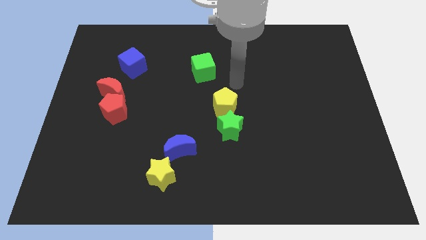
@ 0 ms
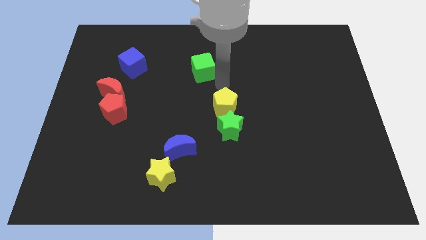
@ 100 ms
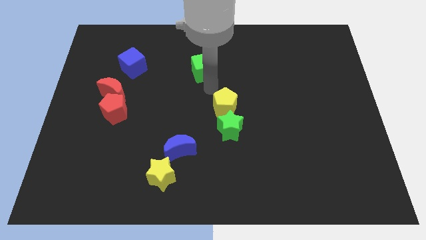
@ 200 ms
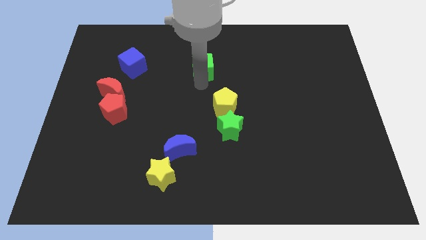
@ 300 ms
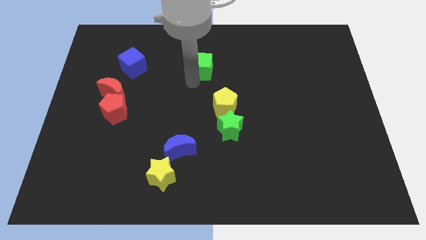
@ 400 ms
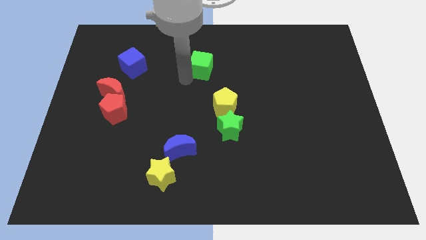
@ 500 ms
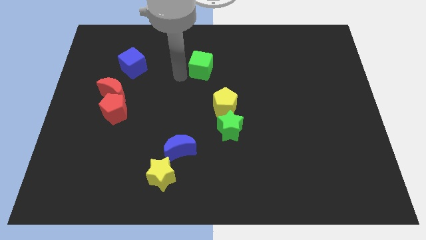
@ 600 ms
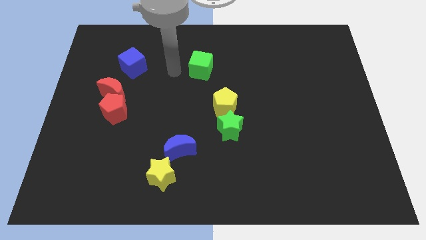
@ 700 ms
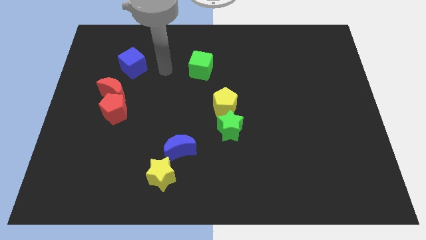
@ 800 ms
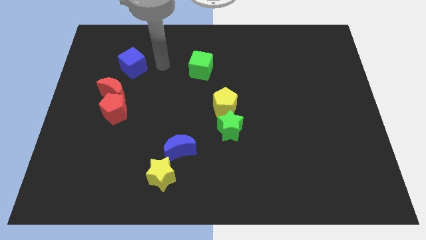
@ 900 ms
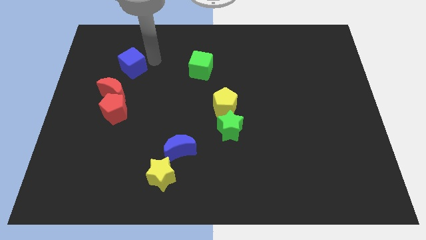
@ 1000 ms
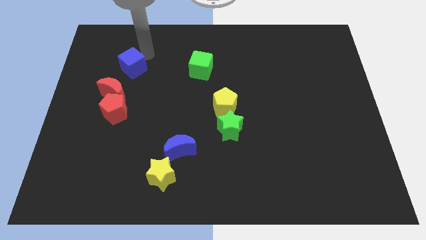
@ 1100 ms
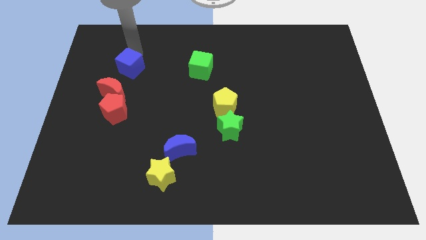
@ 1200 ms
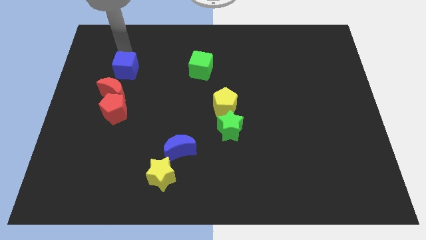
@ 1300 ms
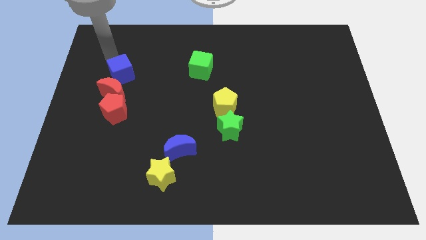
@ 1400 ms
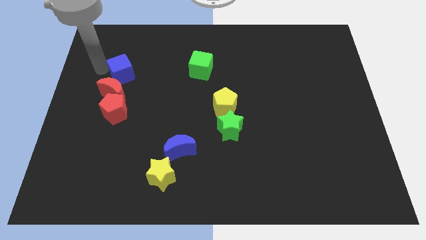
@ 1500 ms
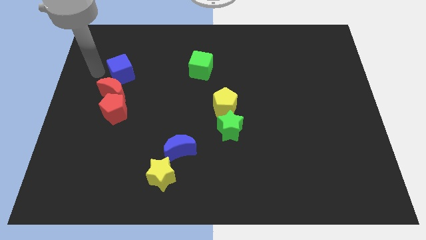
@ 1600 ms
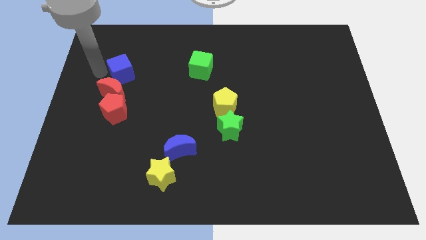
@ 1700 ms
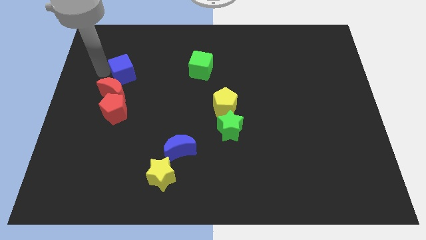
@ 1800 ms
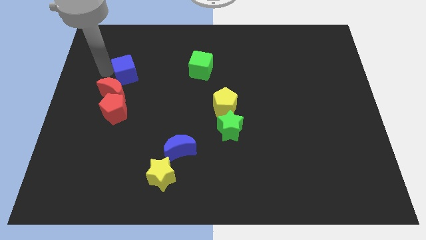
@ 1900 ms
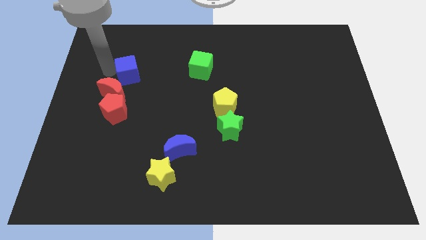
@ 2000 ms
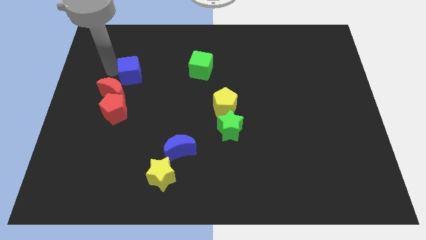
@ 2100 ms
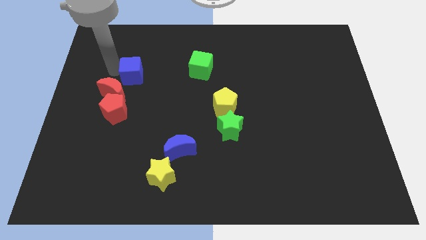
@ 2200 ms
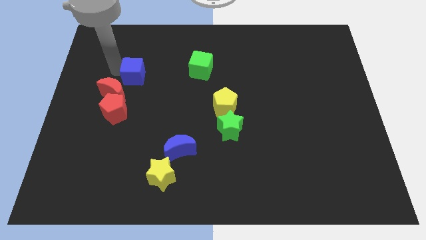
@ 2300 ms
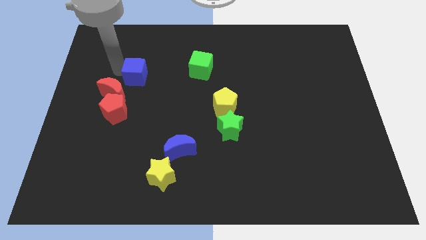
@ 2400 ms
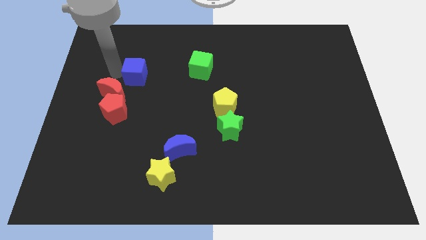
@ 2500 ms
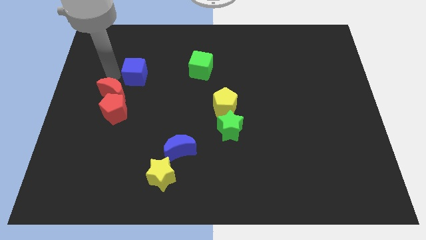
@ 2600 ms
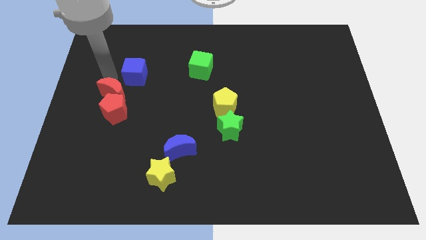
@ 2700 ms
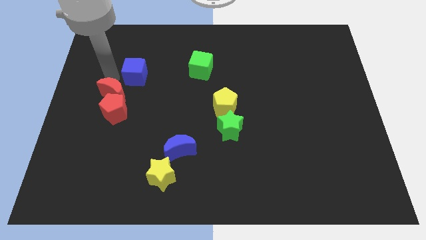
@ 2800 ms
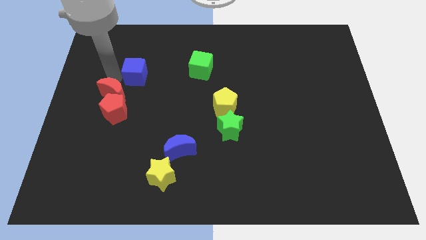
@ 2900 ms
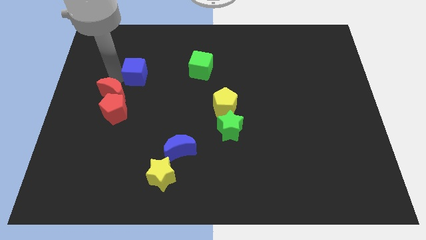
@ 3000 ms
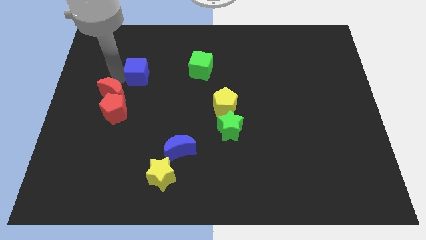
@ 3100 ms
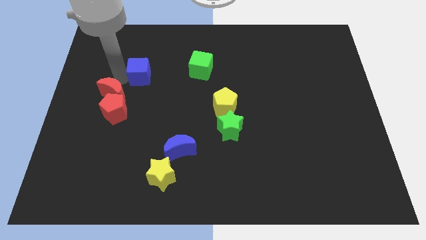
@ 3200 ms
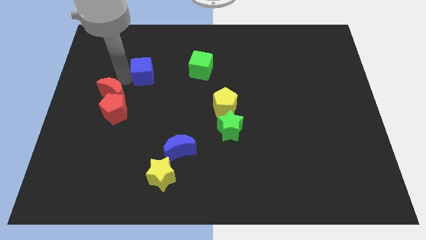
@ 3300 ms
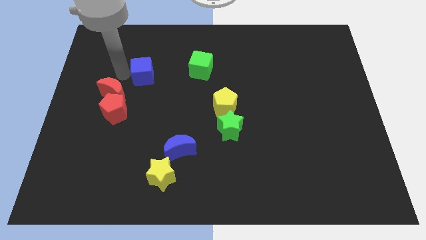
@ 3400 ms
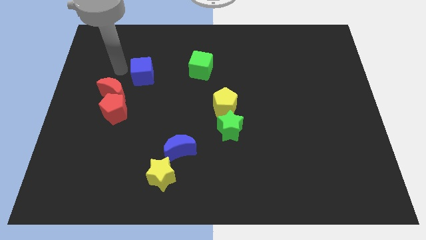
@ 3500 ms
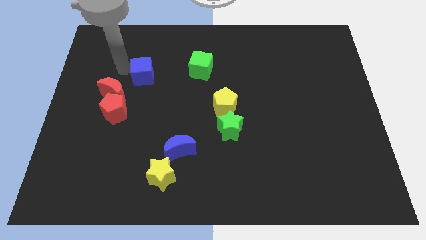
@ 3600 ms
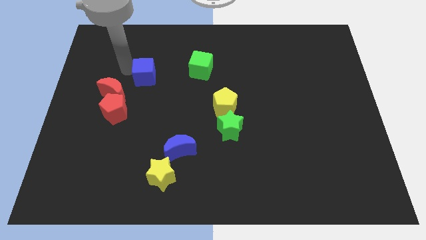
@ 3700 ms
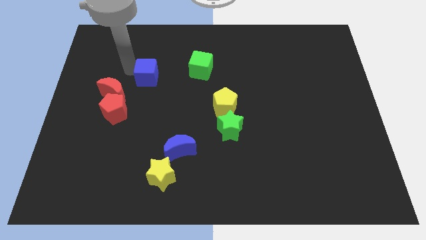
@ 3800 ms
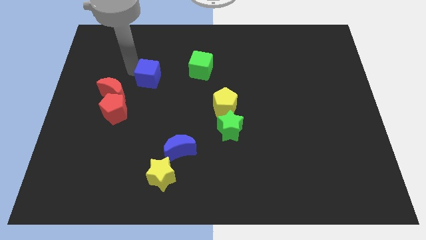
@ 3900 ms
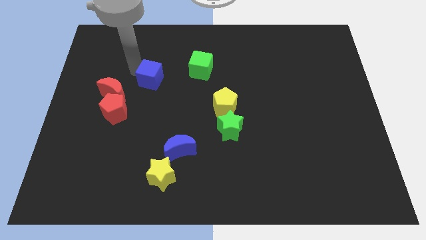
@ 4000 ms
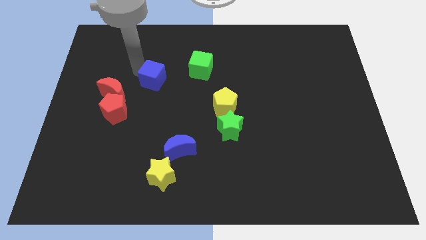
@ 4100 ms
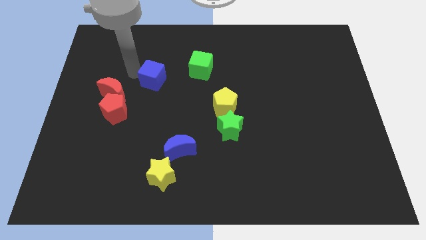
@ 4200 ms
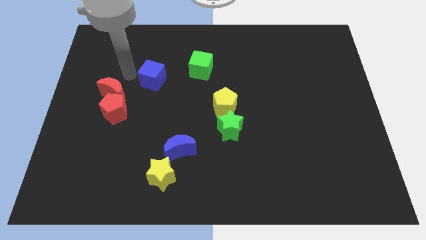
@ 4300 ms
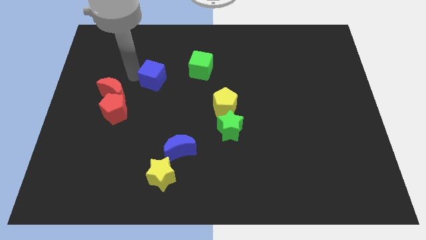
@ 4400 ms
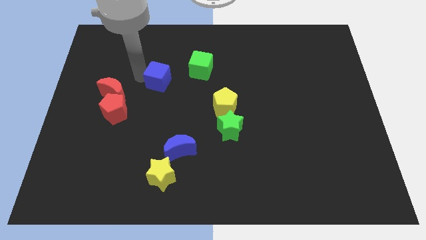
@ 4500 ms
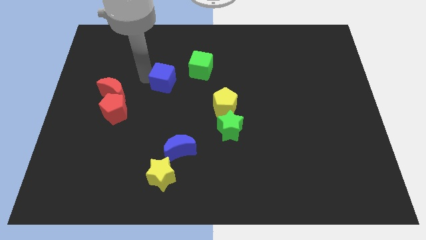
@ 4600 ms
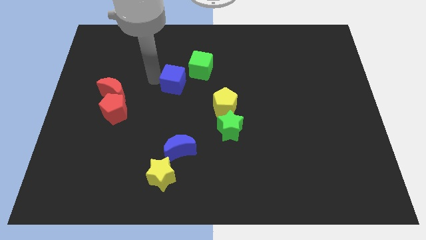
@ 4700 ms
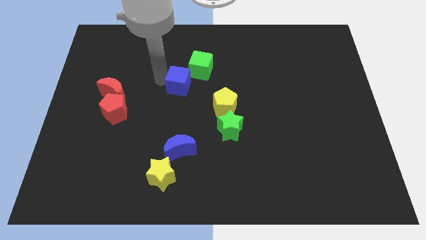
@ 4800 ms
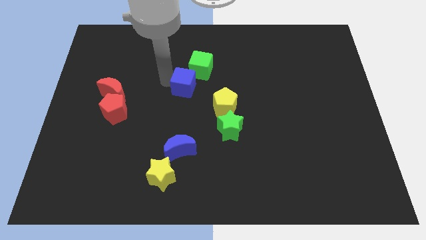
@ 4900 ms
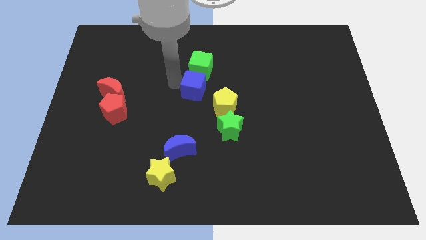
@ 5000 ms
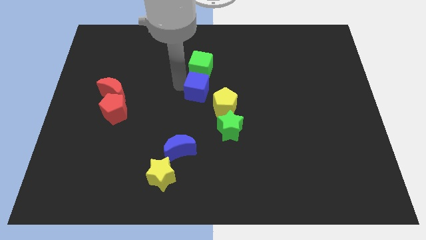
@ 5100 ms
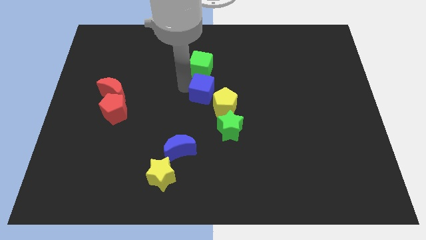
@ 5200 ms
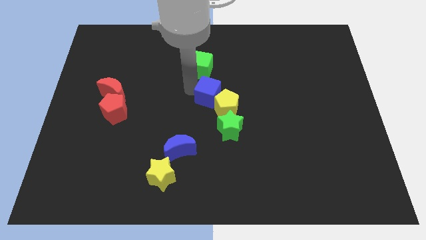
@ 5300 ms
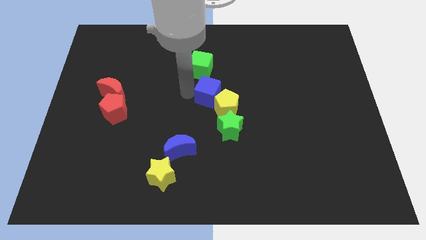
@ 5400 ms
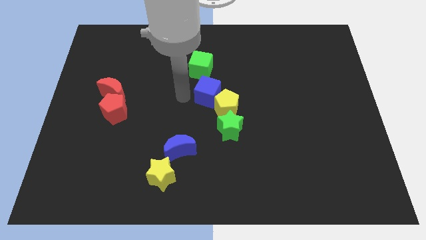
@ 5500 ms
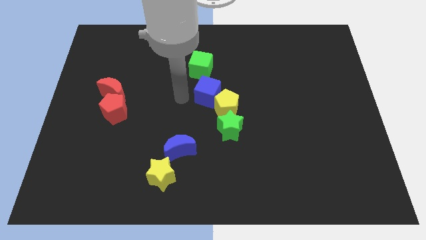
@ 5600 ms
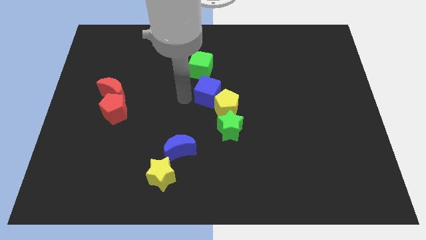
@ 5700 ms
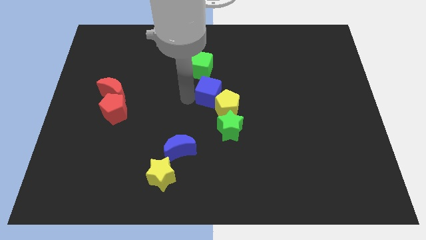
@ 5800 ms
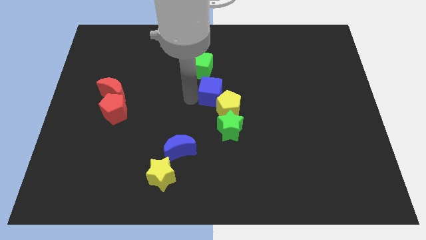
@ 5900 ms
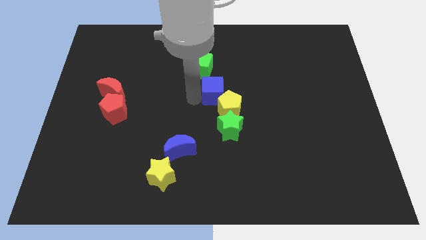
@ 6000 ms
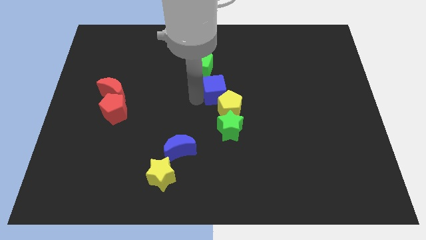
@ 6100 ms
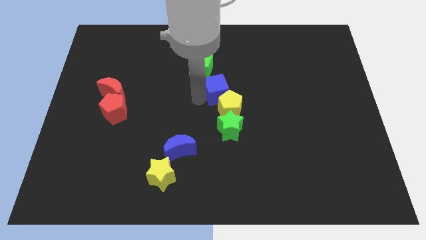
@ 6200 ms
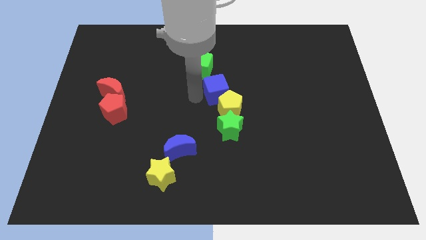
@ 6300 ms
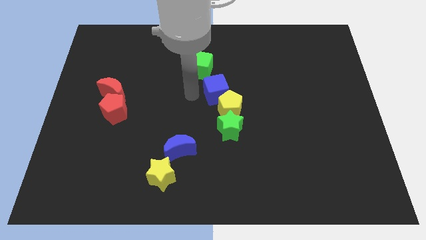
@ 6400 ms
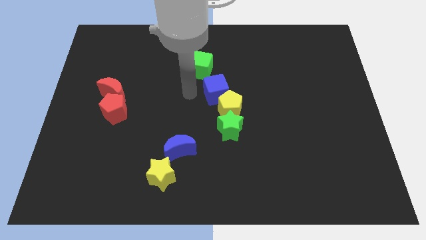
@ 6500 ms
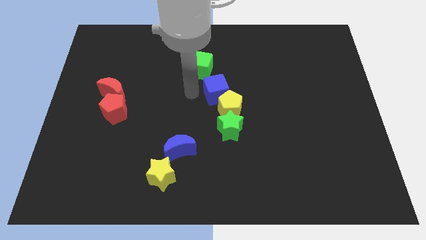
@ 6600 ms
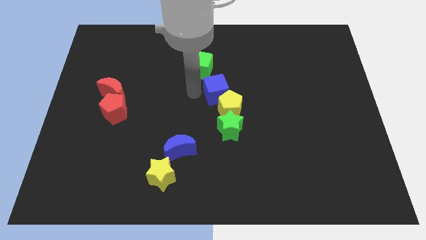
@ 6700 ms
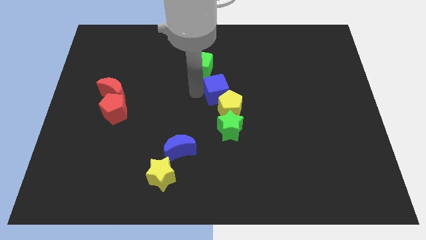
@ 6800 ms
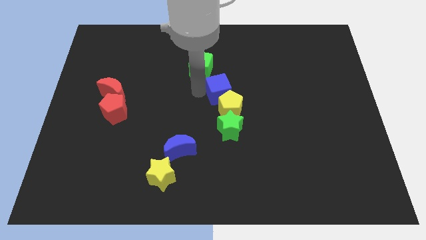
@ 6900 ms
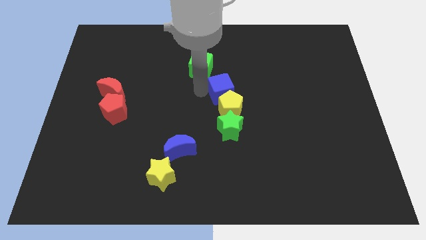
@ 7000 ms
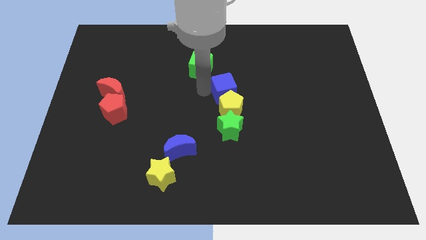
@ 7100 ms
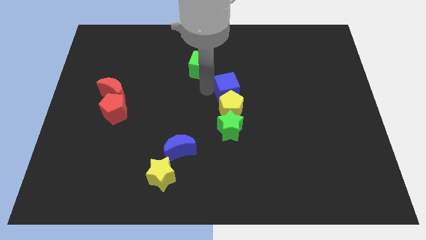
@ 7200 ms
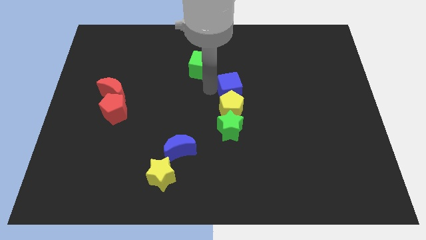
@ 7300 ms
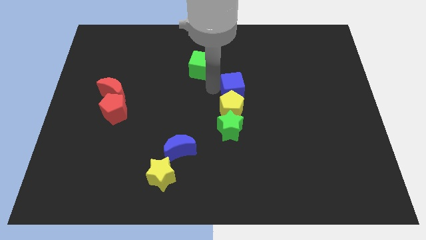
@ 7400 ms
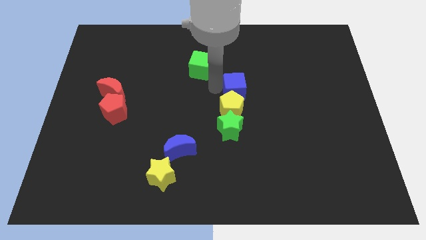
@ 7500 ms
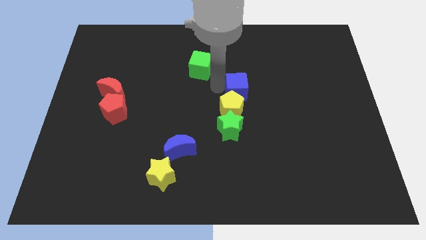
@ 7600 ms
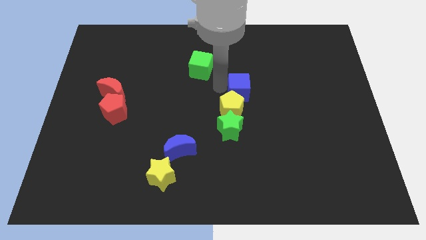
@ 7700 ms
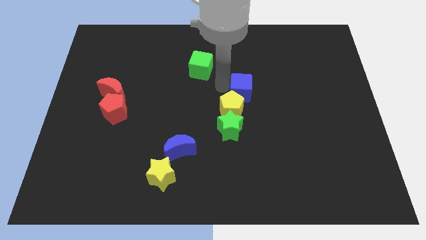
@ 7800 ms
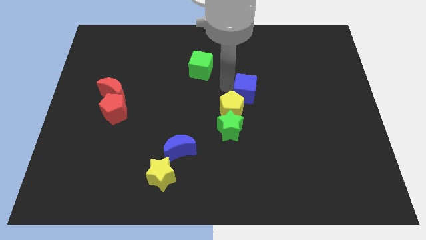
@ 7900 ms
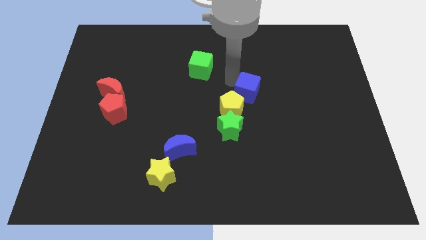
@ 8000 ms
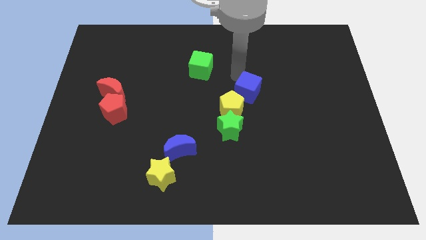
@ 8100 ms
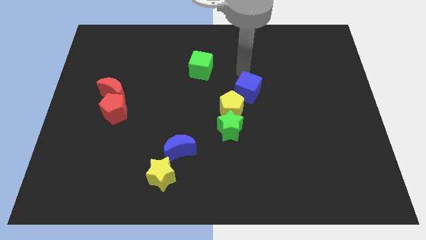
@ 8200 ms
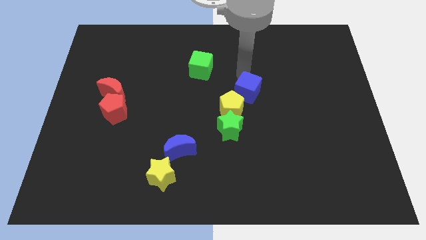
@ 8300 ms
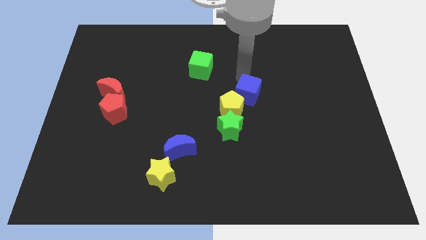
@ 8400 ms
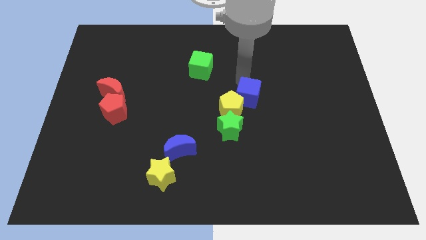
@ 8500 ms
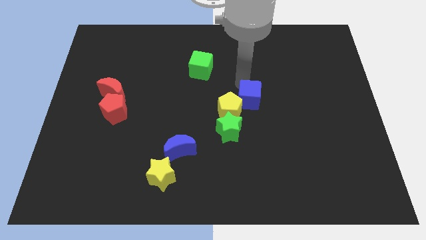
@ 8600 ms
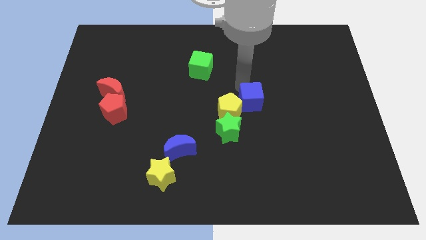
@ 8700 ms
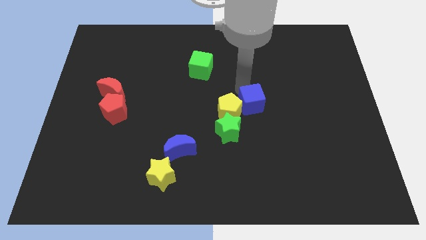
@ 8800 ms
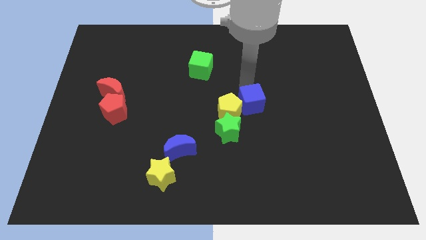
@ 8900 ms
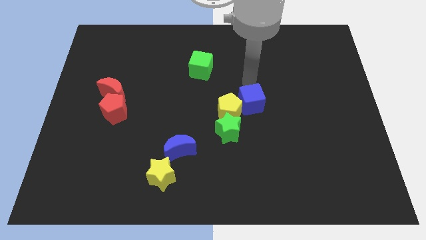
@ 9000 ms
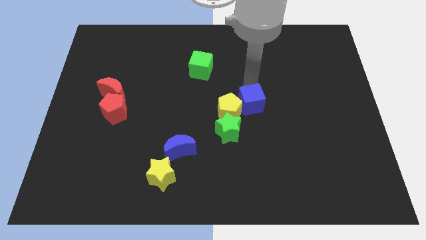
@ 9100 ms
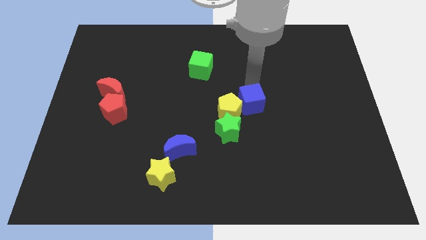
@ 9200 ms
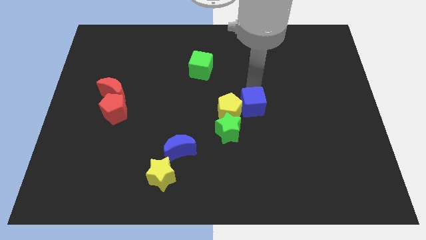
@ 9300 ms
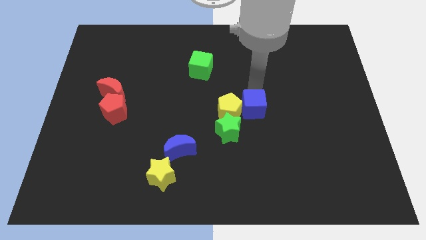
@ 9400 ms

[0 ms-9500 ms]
move the blue cube to the bottom right side of the yellow pentagon
